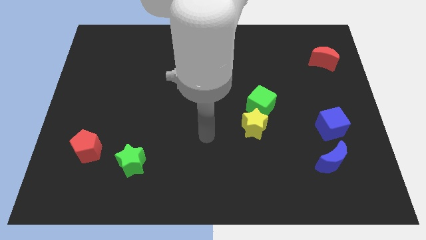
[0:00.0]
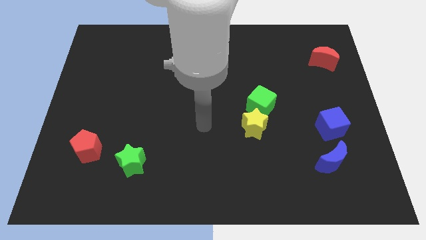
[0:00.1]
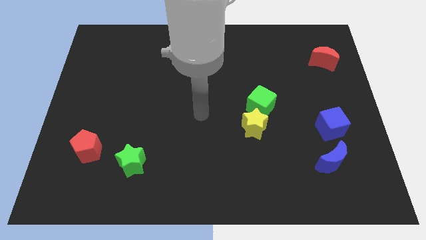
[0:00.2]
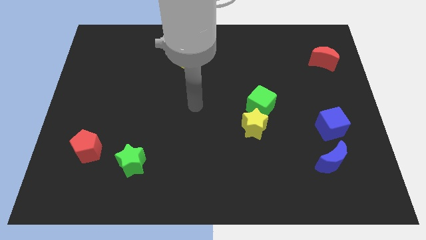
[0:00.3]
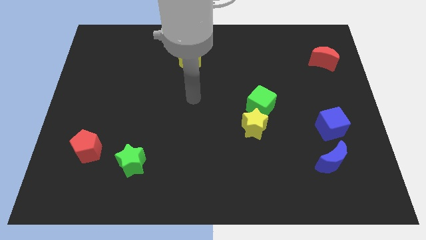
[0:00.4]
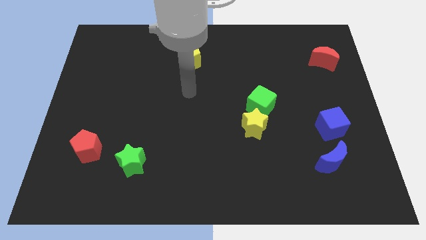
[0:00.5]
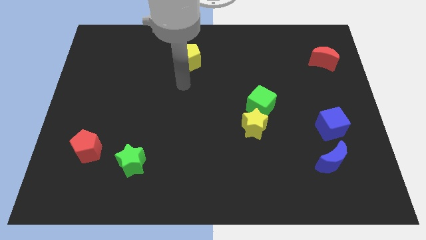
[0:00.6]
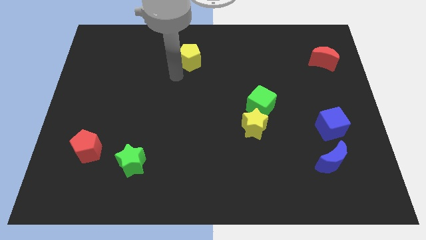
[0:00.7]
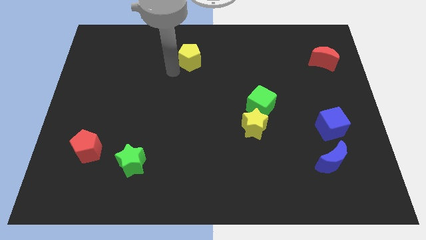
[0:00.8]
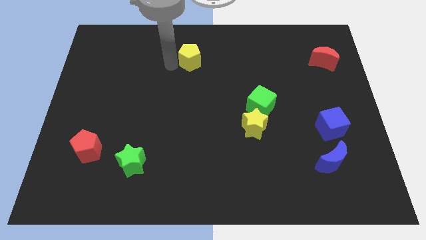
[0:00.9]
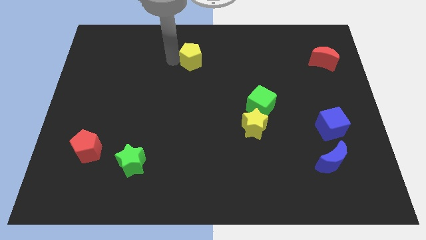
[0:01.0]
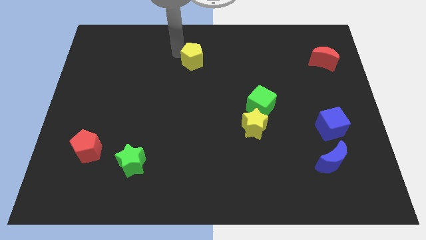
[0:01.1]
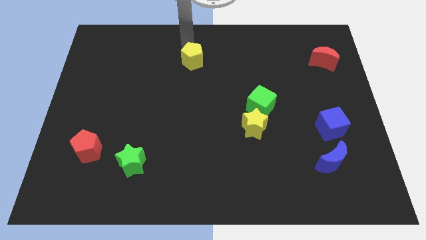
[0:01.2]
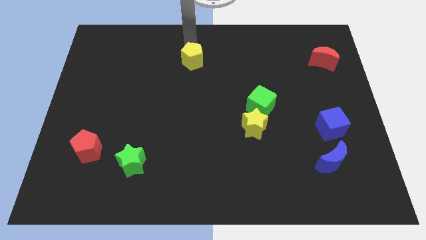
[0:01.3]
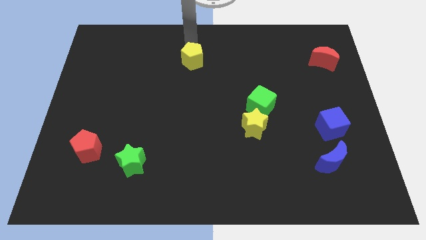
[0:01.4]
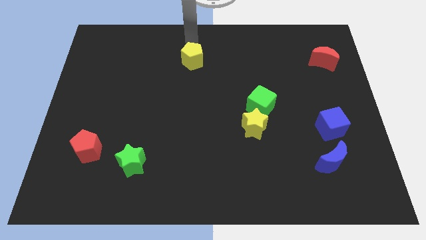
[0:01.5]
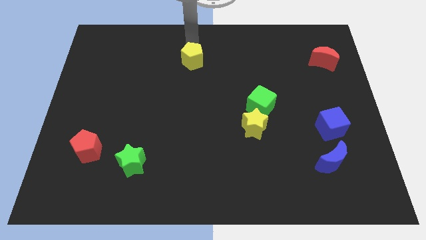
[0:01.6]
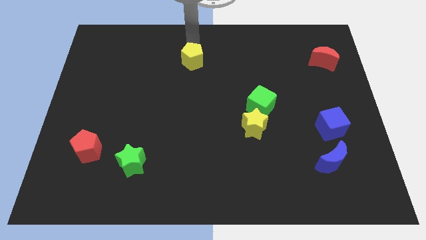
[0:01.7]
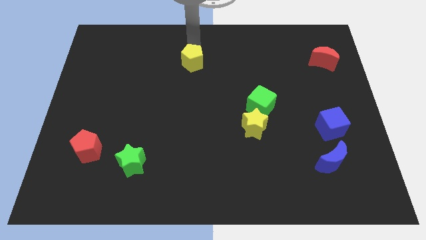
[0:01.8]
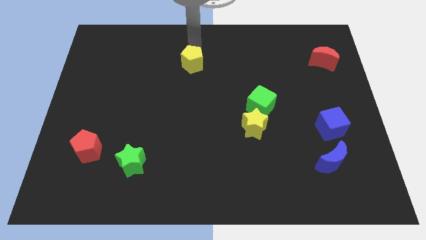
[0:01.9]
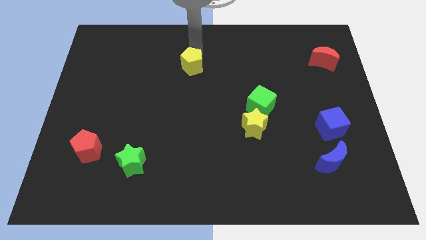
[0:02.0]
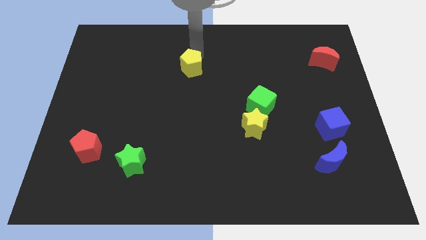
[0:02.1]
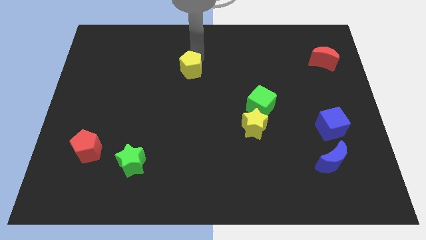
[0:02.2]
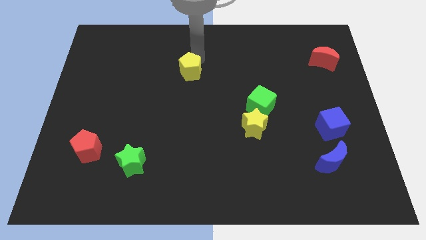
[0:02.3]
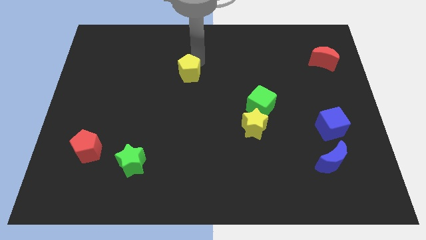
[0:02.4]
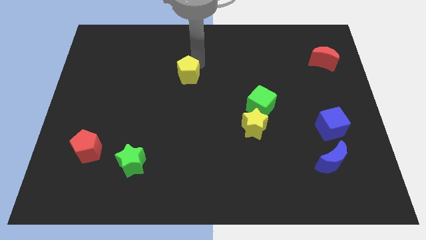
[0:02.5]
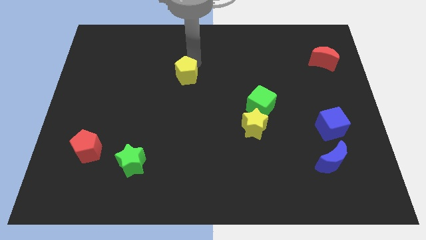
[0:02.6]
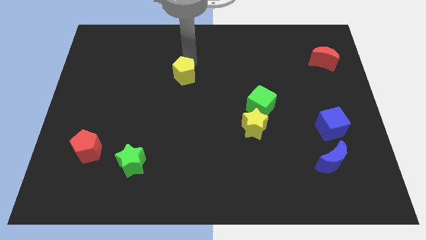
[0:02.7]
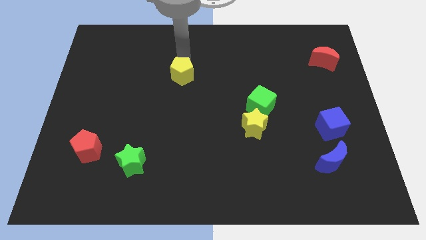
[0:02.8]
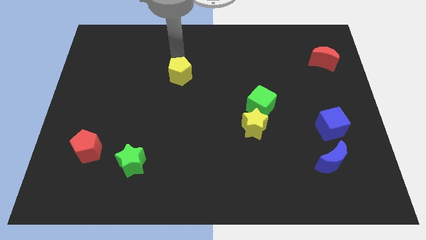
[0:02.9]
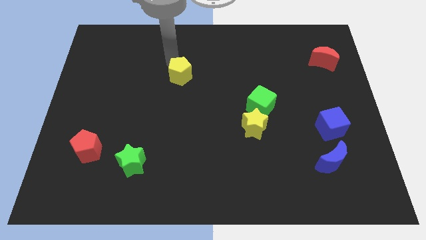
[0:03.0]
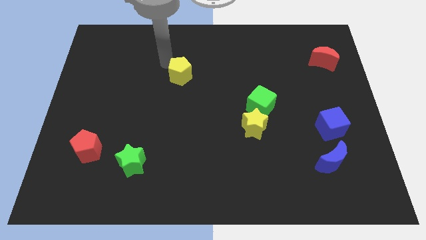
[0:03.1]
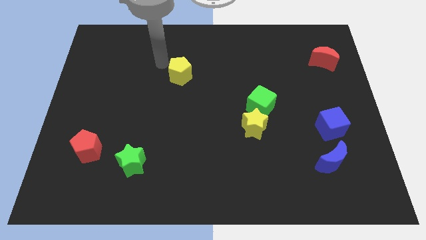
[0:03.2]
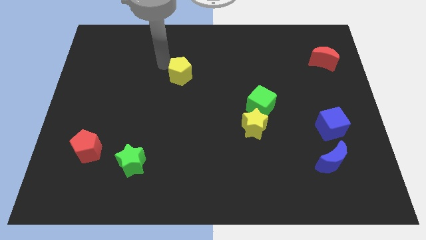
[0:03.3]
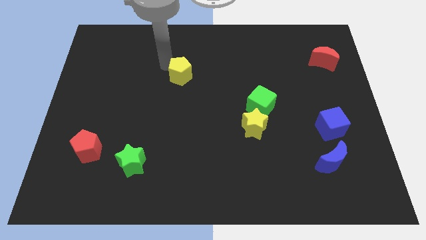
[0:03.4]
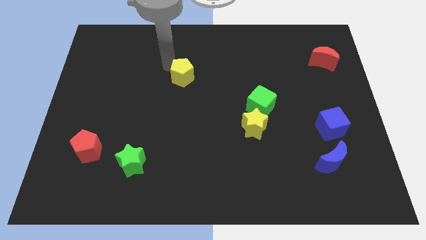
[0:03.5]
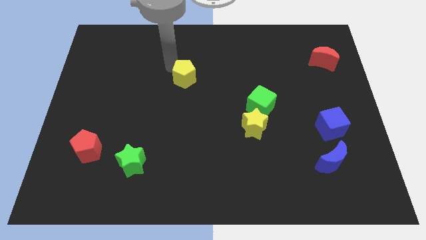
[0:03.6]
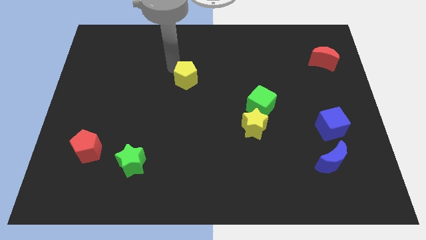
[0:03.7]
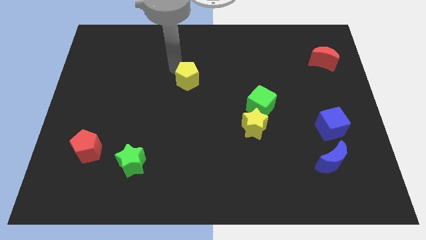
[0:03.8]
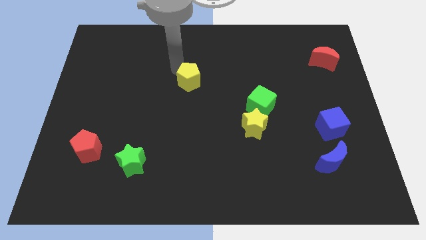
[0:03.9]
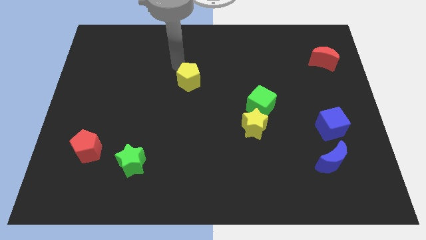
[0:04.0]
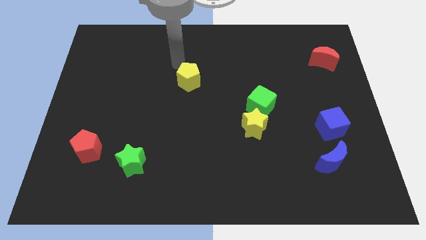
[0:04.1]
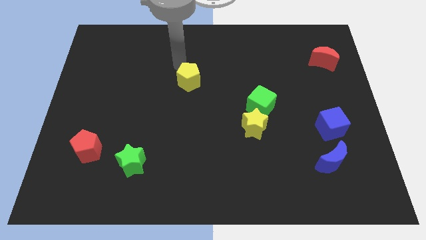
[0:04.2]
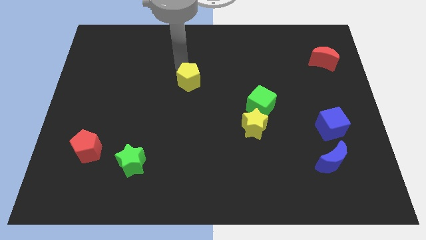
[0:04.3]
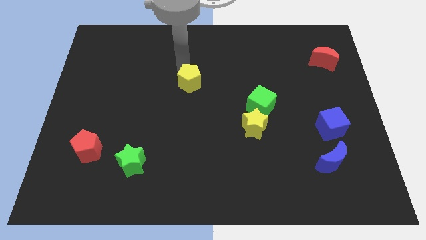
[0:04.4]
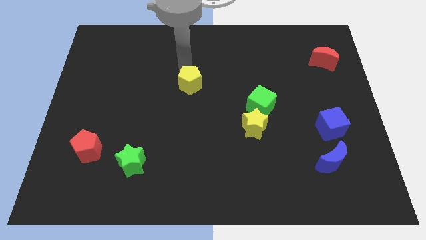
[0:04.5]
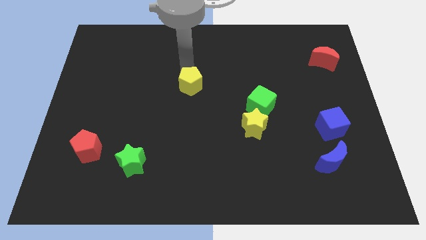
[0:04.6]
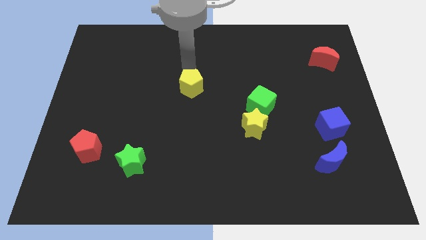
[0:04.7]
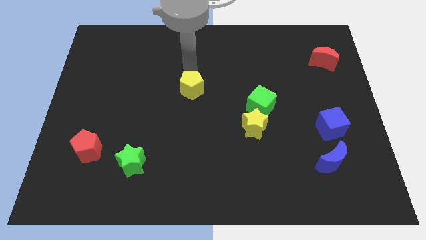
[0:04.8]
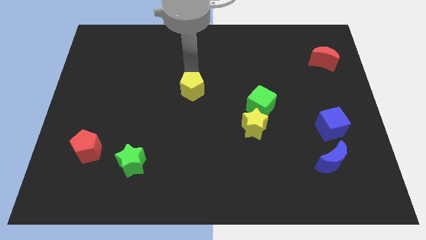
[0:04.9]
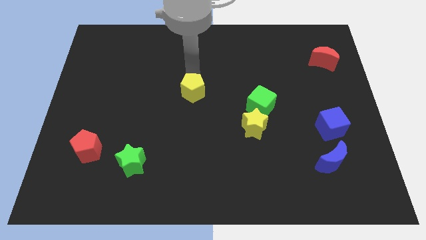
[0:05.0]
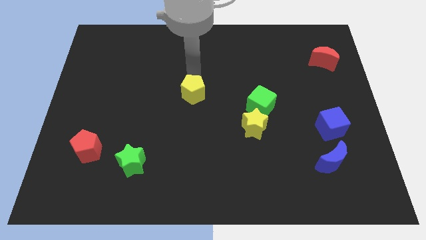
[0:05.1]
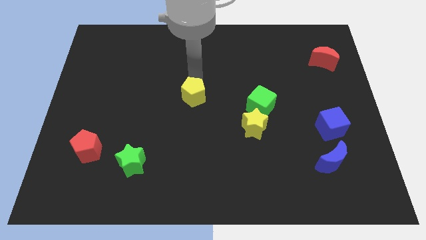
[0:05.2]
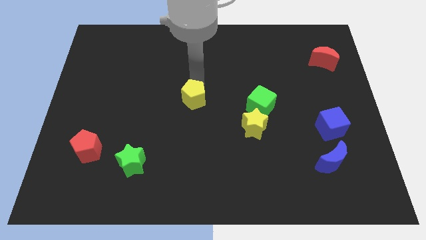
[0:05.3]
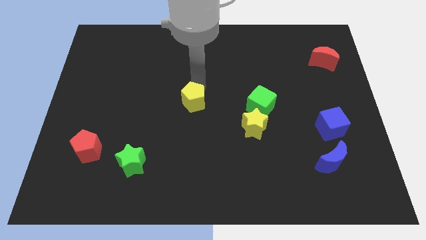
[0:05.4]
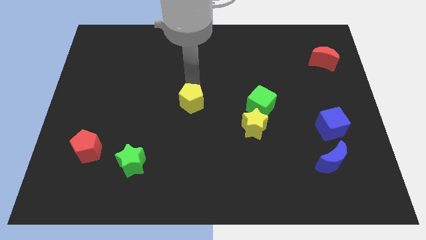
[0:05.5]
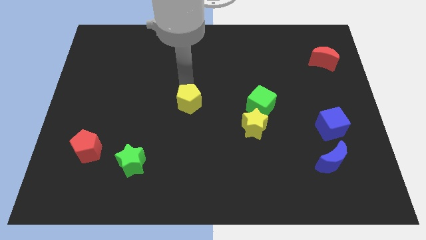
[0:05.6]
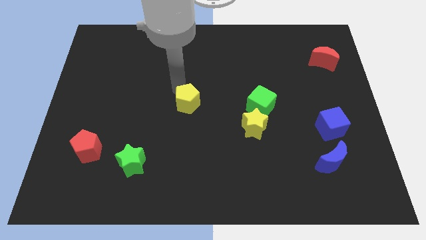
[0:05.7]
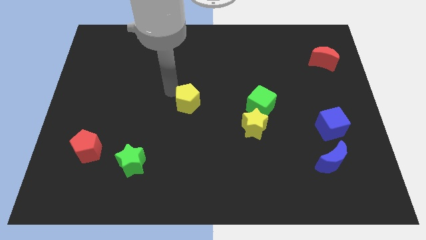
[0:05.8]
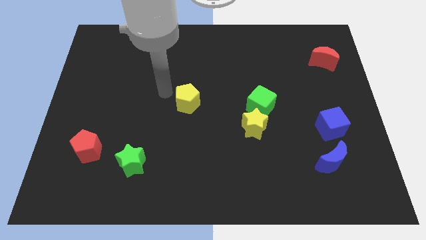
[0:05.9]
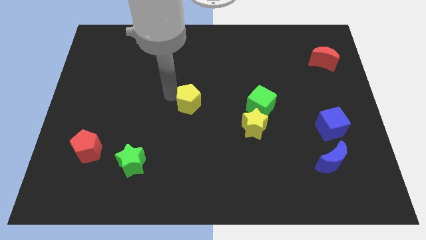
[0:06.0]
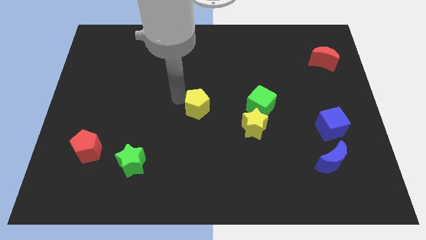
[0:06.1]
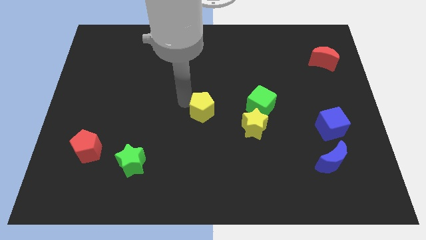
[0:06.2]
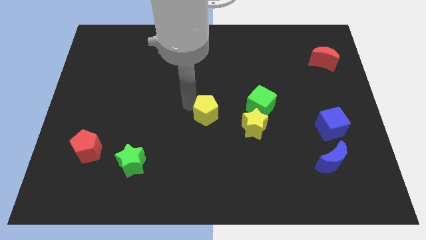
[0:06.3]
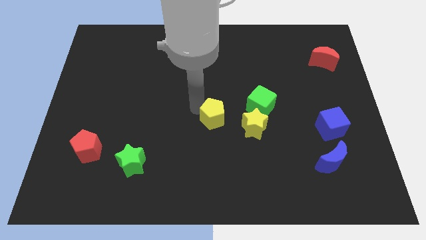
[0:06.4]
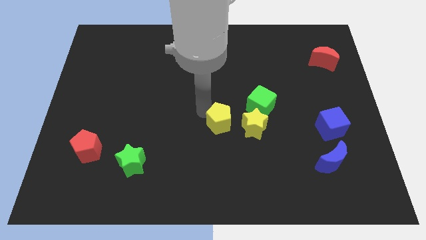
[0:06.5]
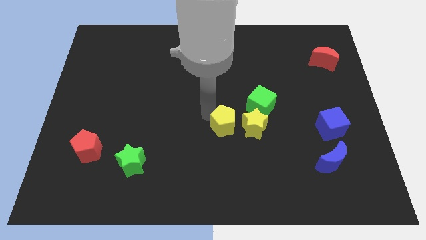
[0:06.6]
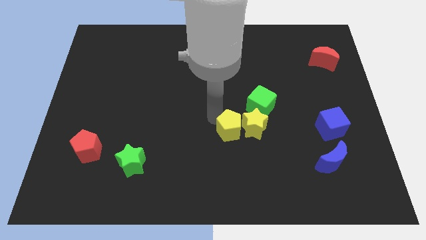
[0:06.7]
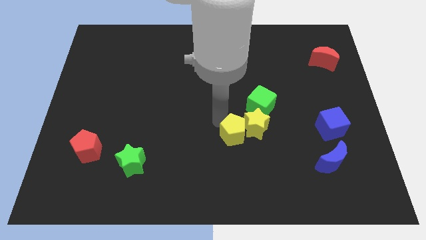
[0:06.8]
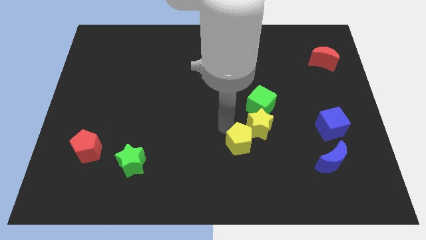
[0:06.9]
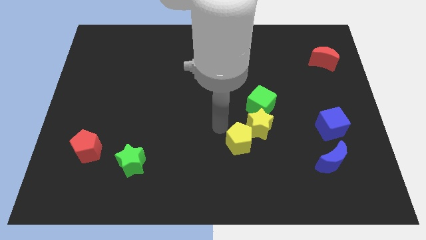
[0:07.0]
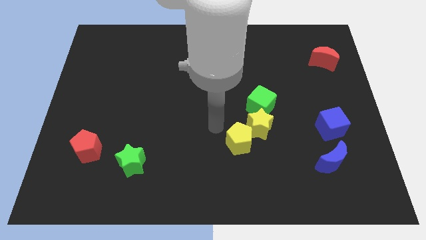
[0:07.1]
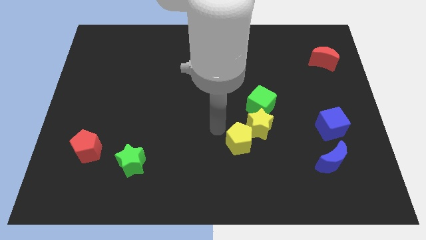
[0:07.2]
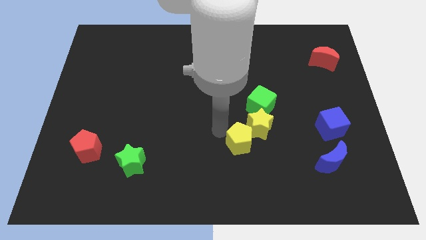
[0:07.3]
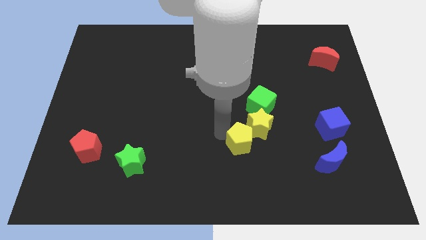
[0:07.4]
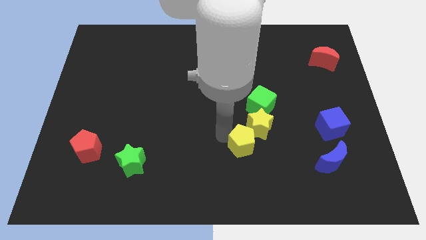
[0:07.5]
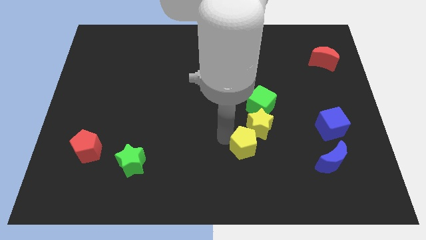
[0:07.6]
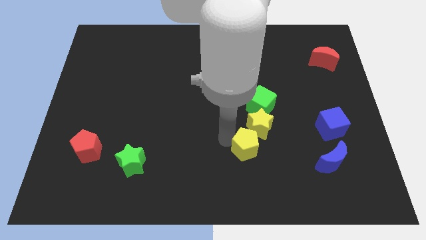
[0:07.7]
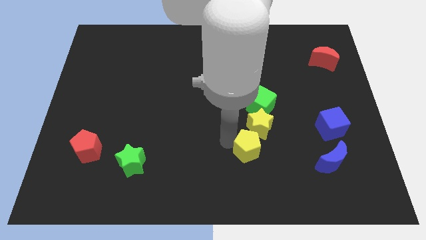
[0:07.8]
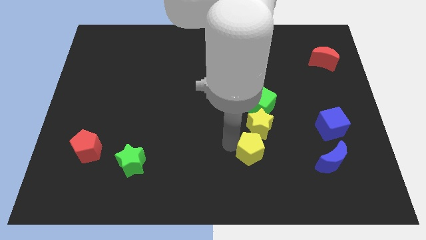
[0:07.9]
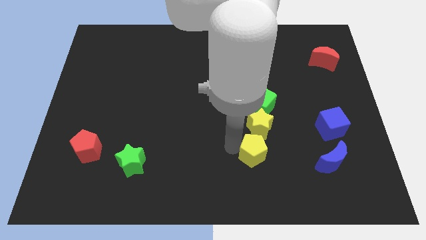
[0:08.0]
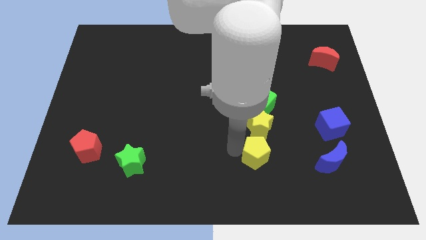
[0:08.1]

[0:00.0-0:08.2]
slide the yellow pentagon left of the blue moon
